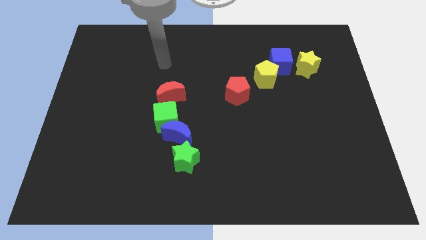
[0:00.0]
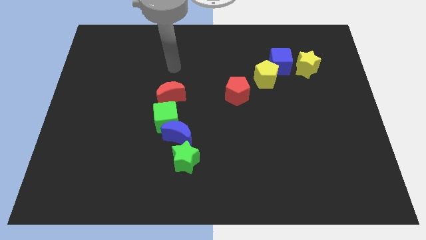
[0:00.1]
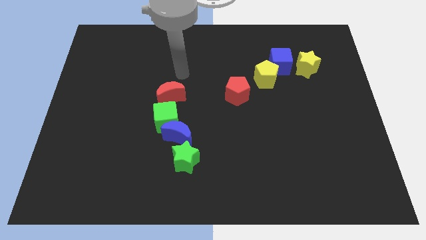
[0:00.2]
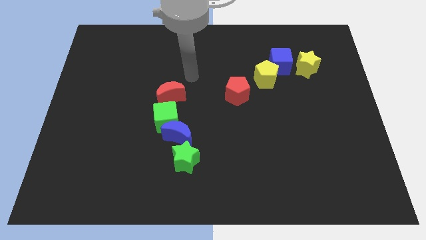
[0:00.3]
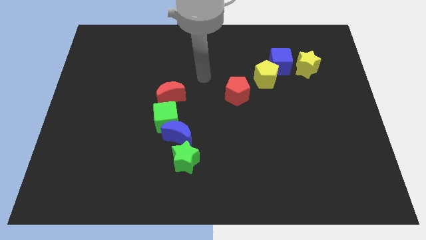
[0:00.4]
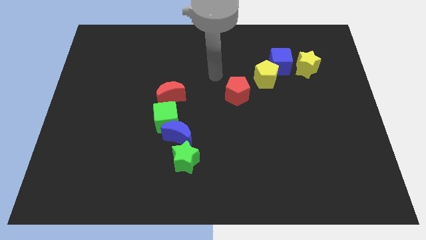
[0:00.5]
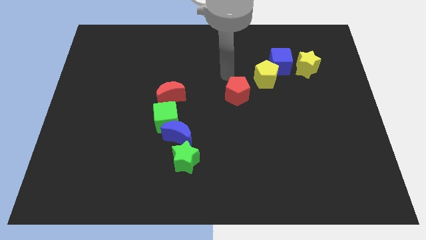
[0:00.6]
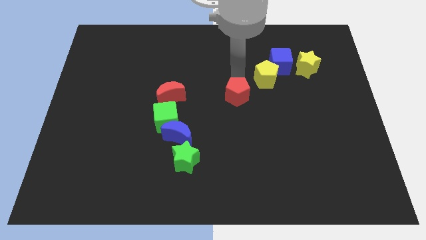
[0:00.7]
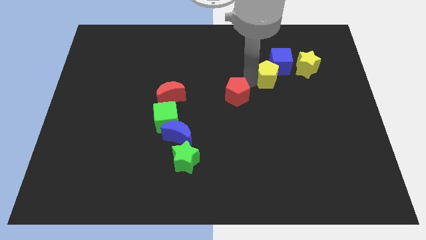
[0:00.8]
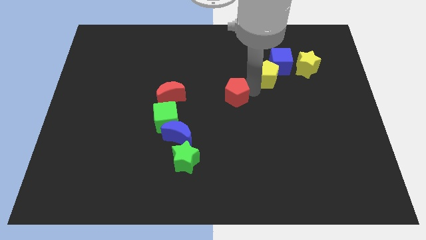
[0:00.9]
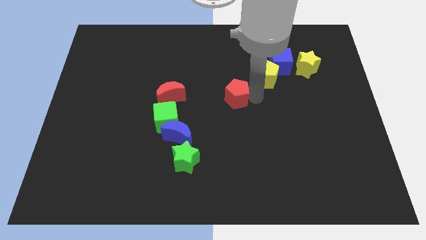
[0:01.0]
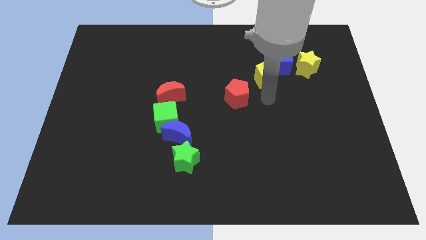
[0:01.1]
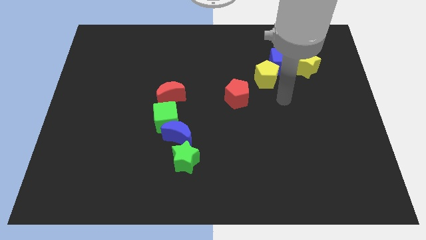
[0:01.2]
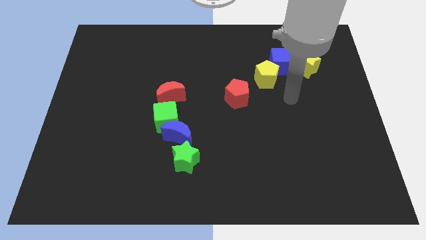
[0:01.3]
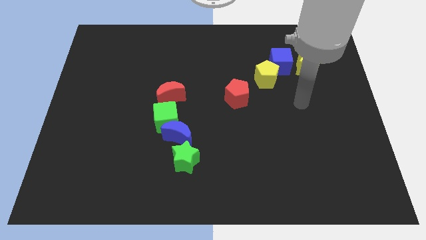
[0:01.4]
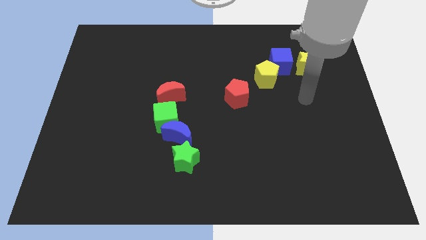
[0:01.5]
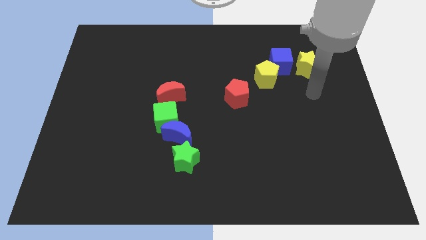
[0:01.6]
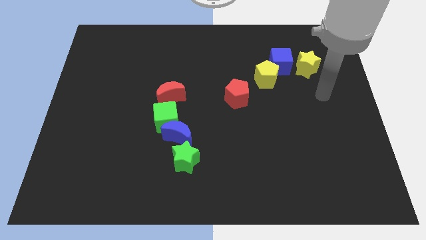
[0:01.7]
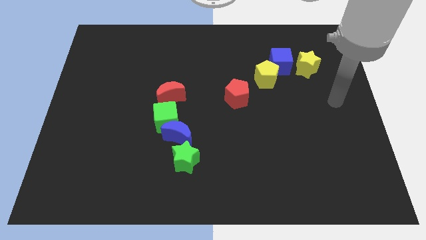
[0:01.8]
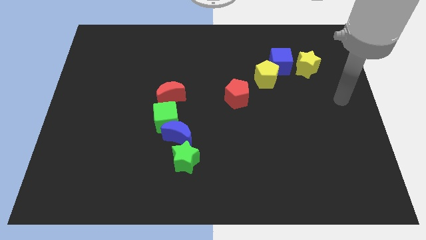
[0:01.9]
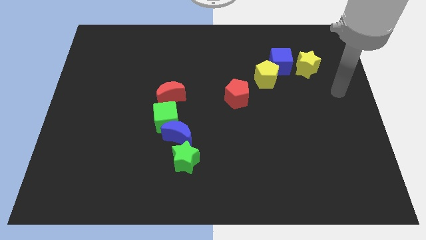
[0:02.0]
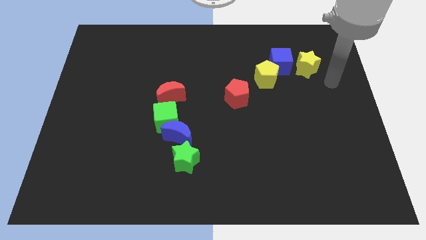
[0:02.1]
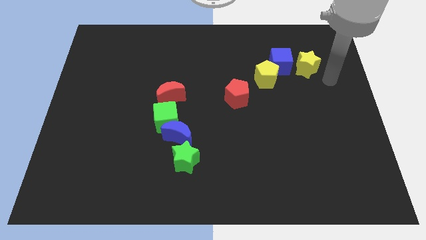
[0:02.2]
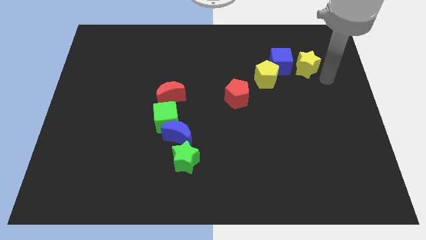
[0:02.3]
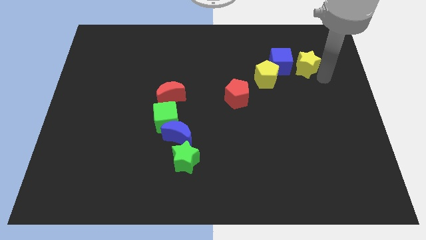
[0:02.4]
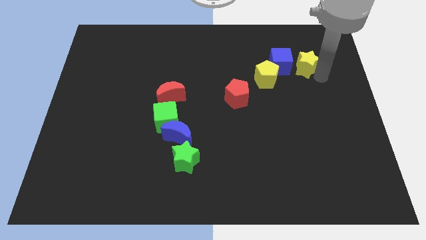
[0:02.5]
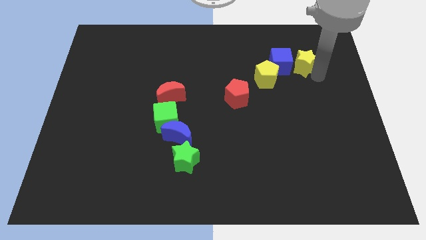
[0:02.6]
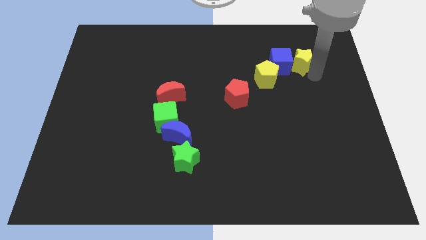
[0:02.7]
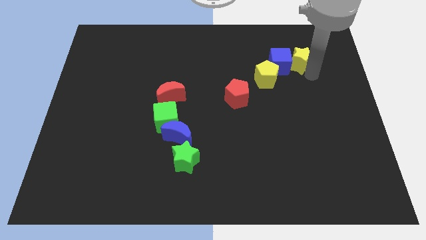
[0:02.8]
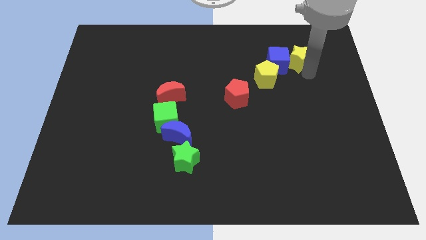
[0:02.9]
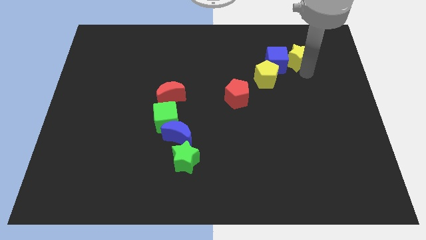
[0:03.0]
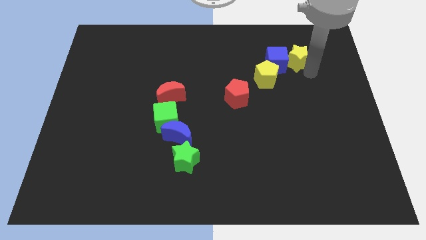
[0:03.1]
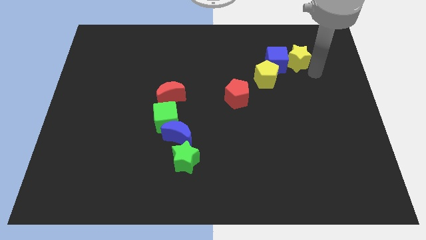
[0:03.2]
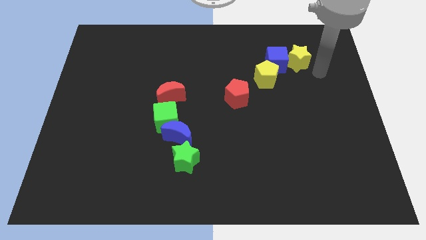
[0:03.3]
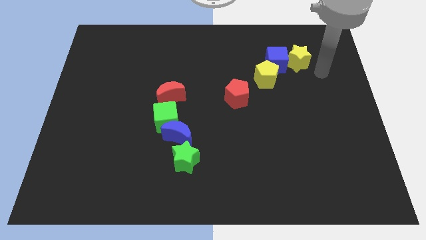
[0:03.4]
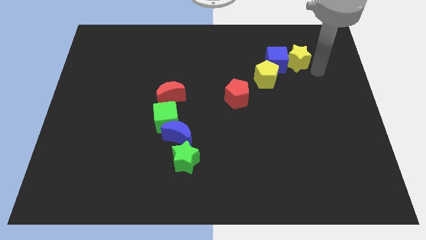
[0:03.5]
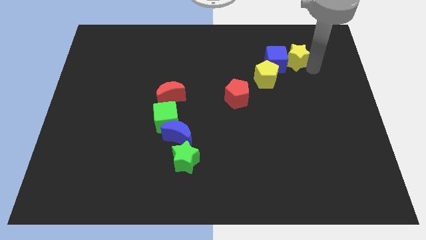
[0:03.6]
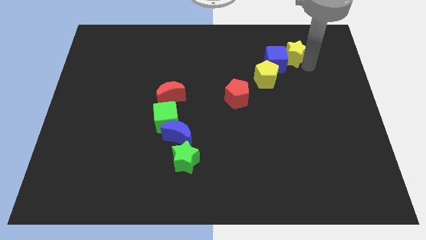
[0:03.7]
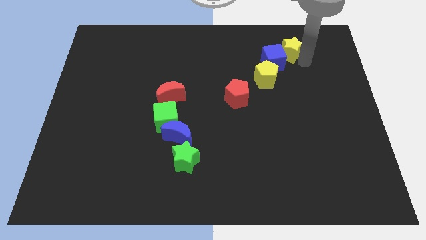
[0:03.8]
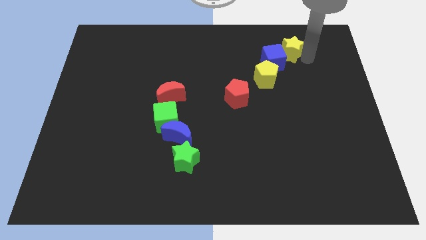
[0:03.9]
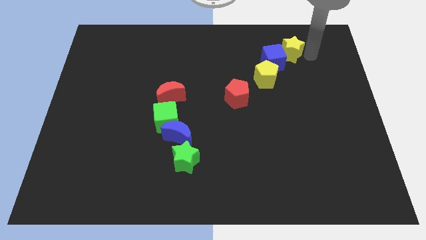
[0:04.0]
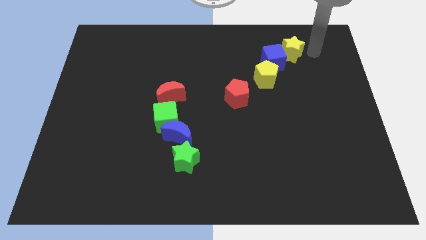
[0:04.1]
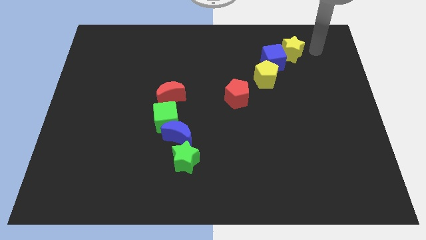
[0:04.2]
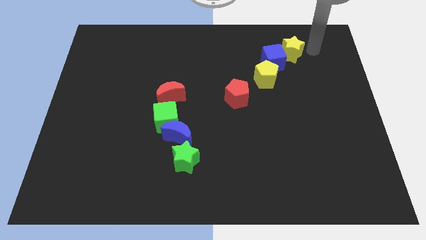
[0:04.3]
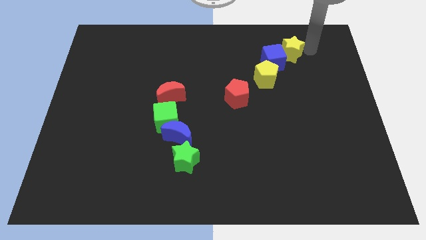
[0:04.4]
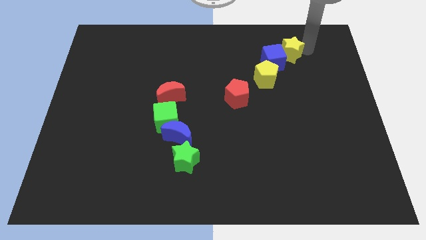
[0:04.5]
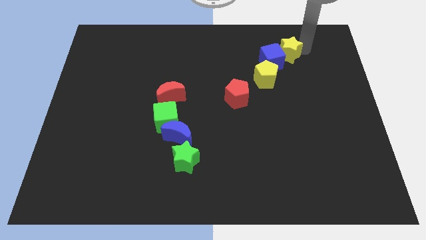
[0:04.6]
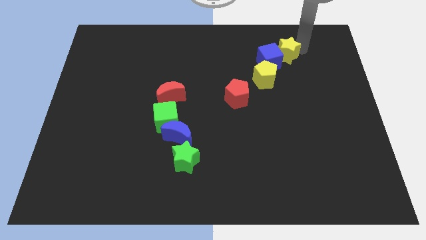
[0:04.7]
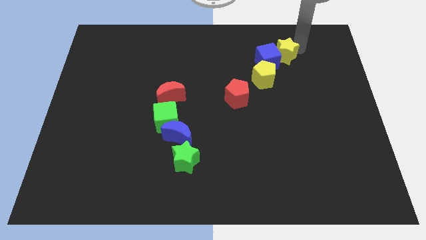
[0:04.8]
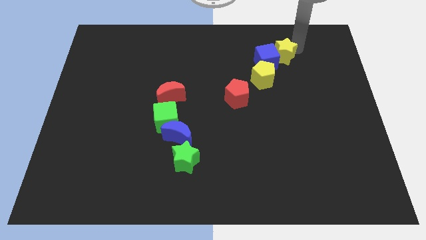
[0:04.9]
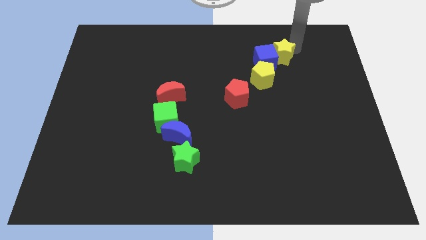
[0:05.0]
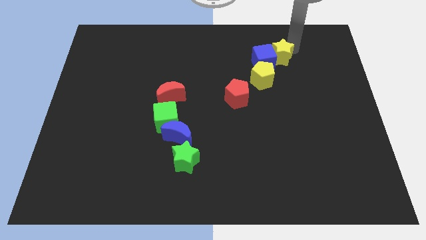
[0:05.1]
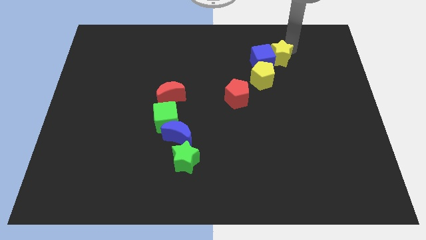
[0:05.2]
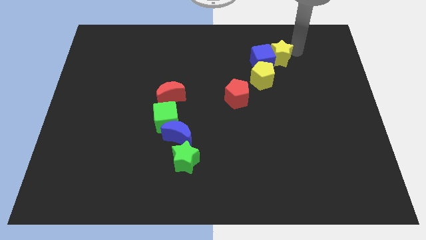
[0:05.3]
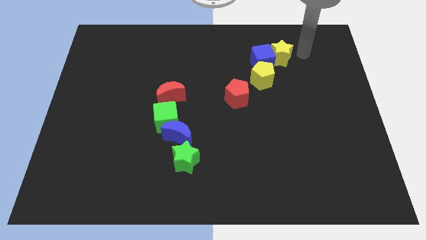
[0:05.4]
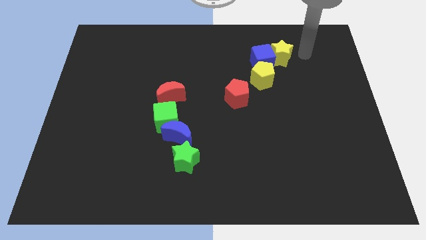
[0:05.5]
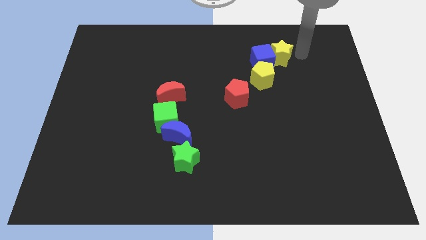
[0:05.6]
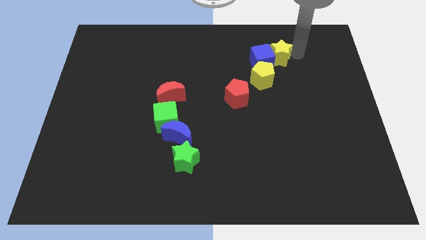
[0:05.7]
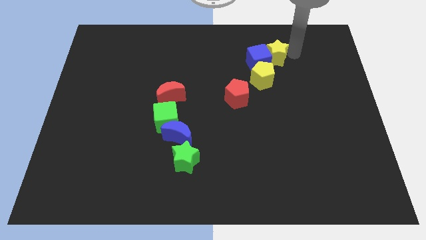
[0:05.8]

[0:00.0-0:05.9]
push the yellow star slightly to the left

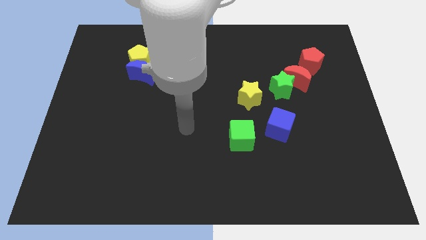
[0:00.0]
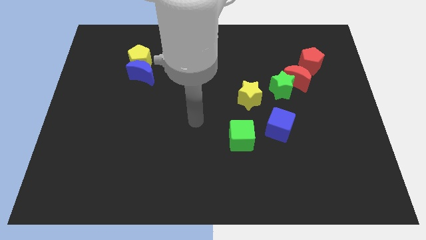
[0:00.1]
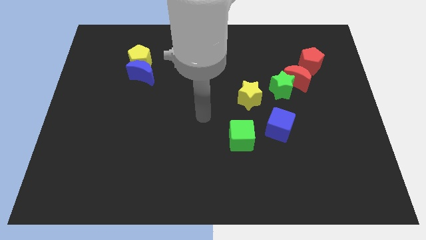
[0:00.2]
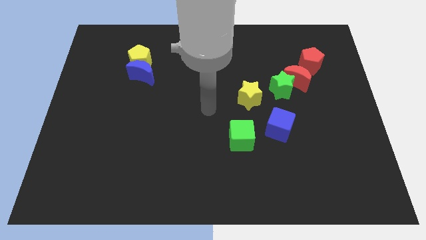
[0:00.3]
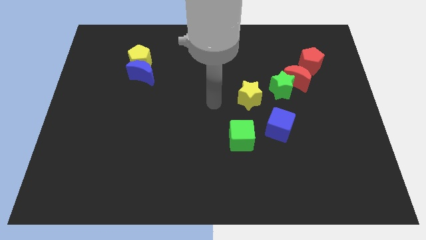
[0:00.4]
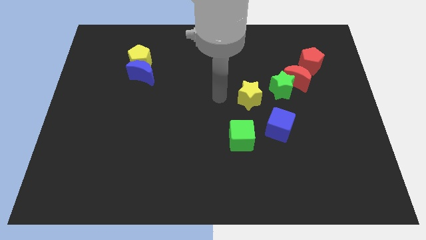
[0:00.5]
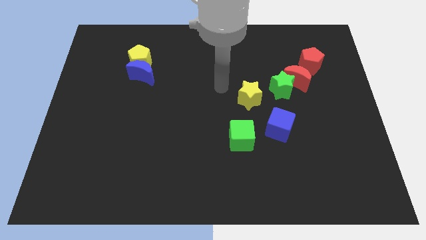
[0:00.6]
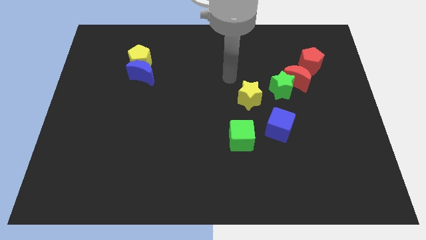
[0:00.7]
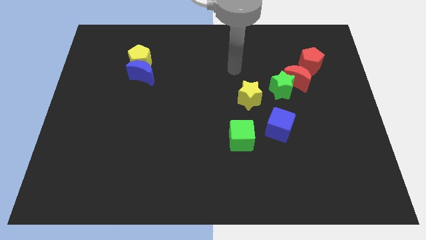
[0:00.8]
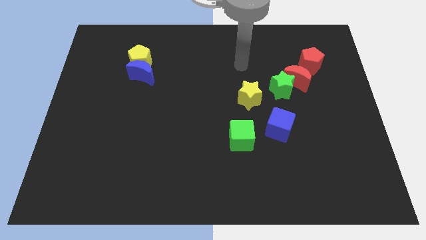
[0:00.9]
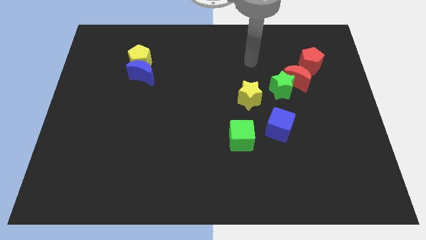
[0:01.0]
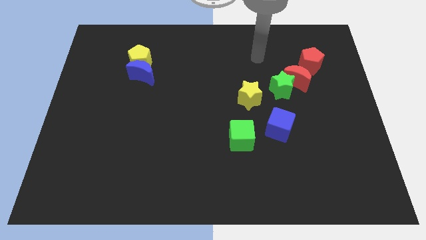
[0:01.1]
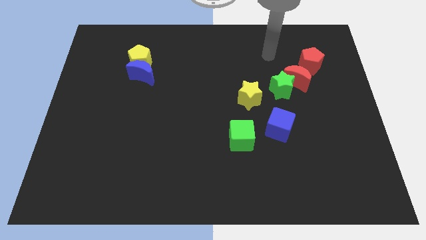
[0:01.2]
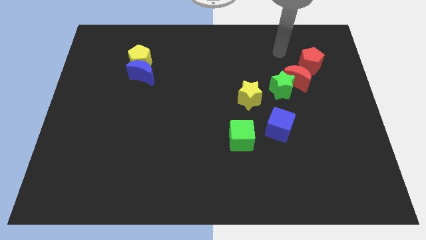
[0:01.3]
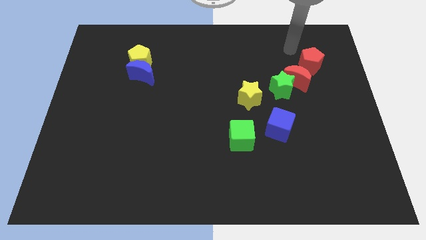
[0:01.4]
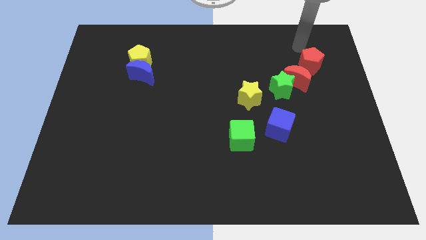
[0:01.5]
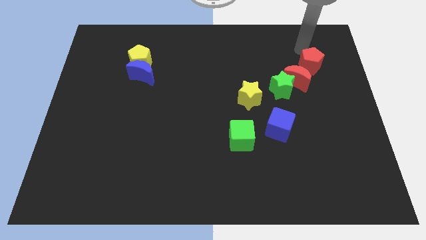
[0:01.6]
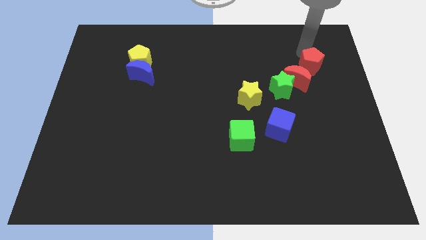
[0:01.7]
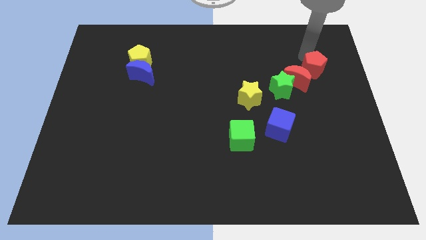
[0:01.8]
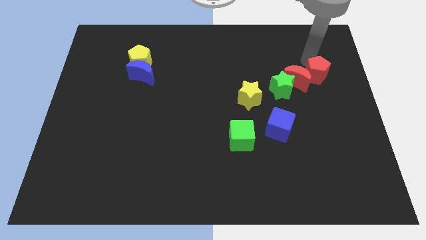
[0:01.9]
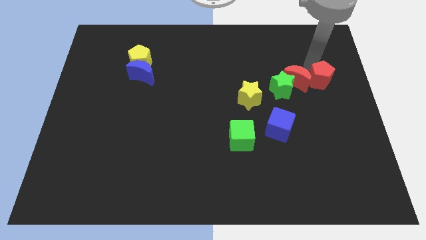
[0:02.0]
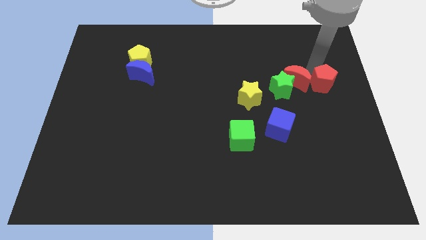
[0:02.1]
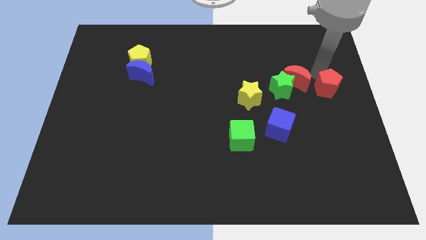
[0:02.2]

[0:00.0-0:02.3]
slide the red pentagon a little downwards

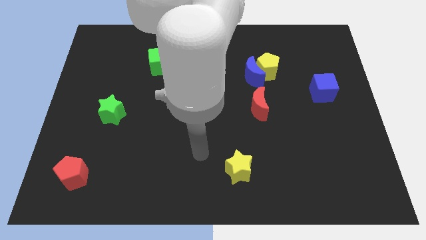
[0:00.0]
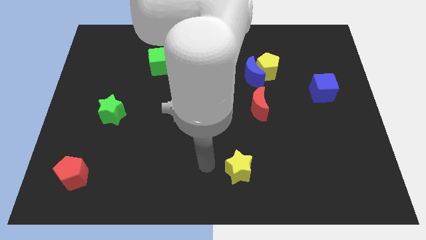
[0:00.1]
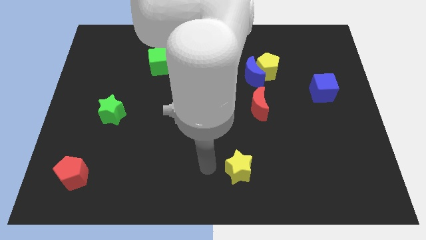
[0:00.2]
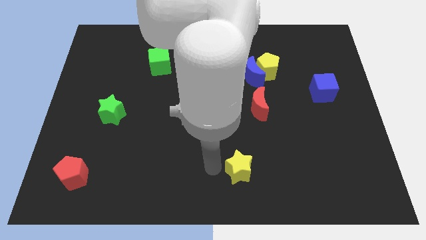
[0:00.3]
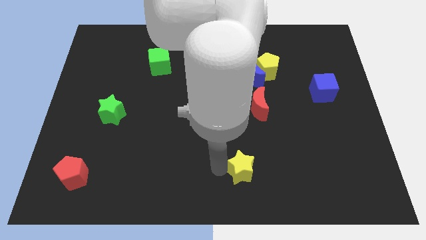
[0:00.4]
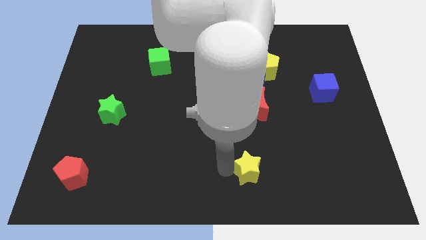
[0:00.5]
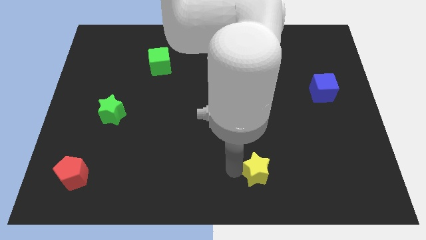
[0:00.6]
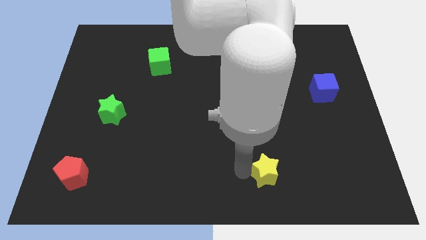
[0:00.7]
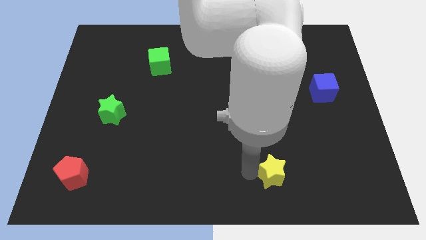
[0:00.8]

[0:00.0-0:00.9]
slightly slide the yellow star to the right
